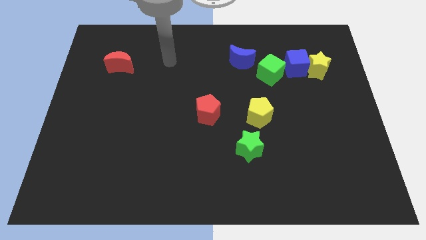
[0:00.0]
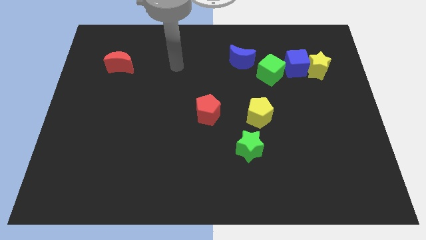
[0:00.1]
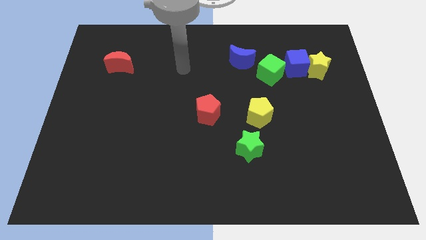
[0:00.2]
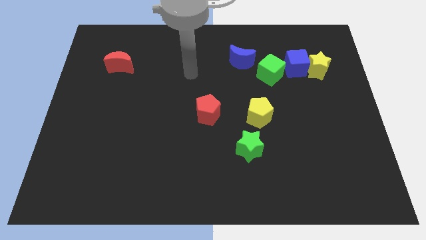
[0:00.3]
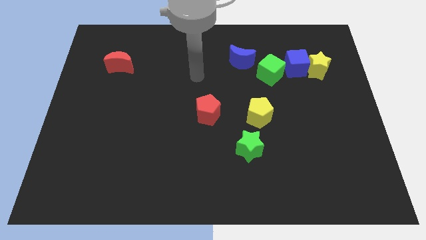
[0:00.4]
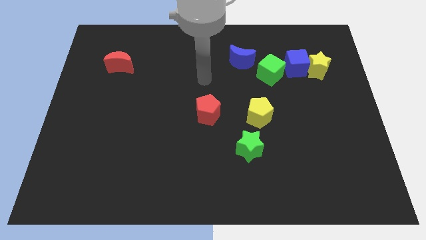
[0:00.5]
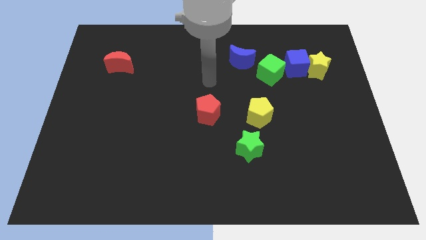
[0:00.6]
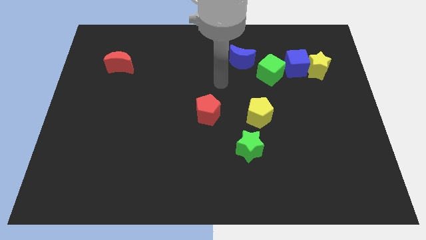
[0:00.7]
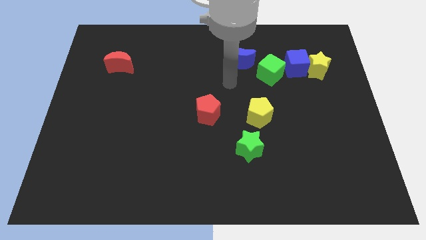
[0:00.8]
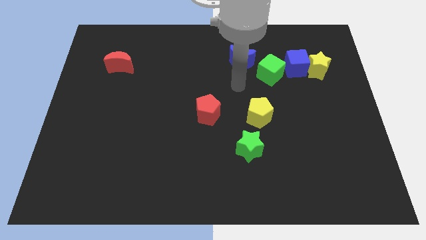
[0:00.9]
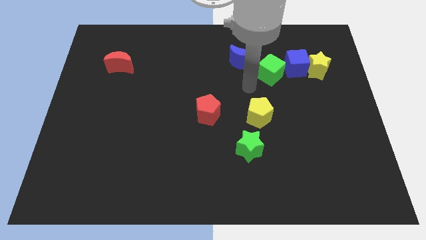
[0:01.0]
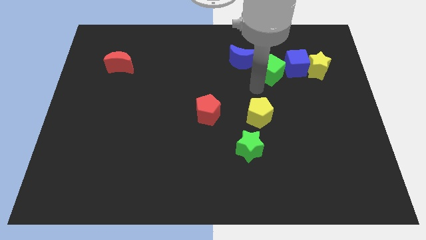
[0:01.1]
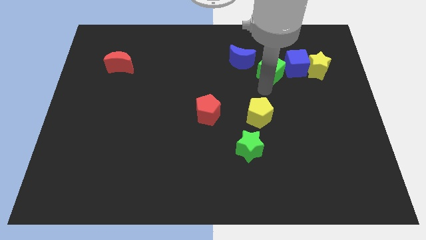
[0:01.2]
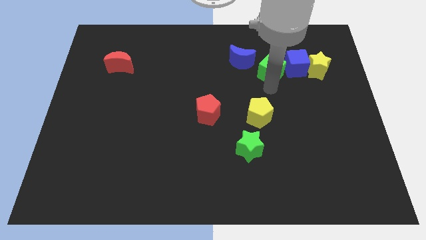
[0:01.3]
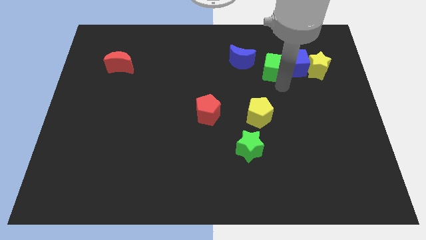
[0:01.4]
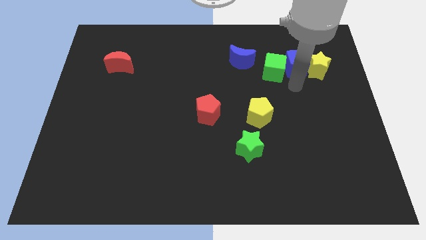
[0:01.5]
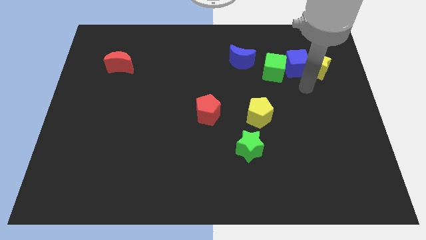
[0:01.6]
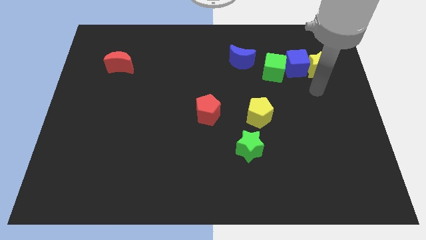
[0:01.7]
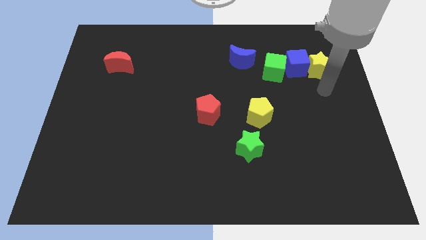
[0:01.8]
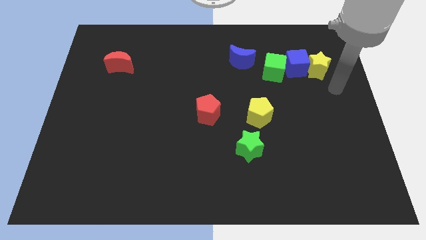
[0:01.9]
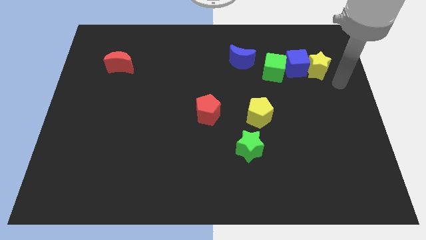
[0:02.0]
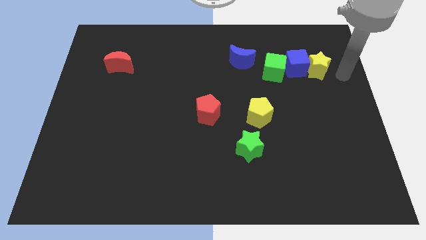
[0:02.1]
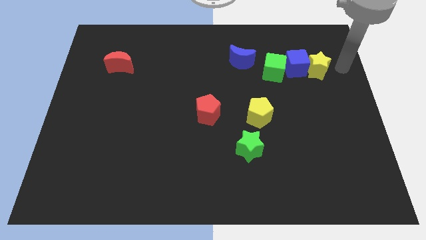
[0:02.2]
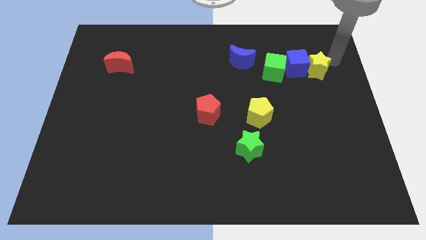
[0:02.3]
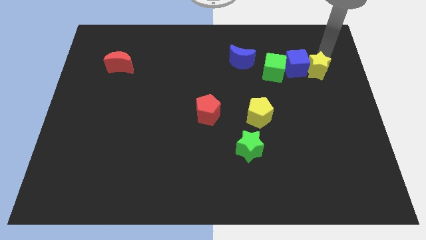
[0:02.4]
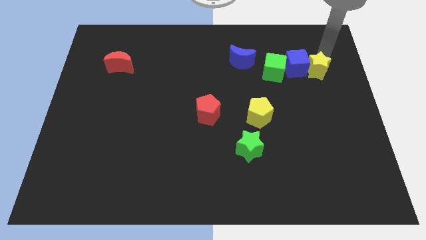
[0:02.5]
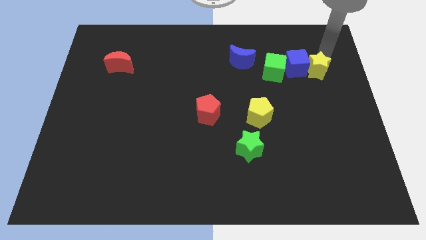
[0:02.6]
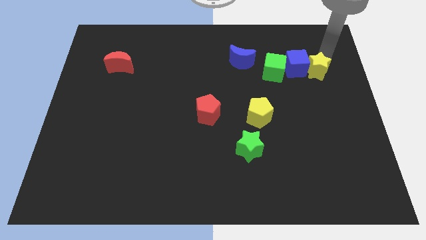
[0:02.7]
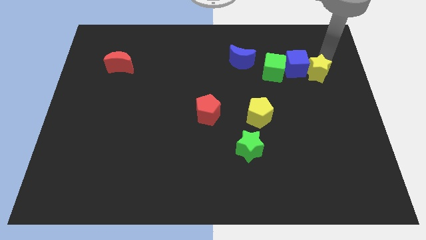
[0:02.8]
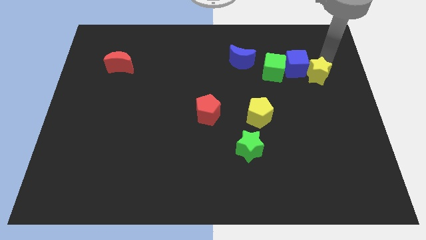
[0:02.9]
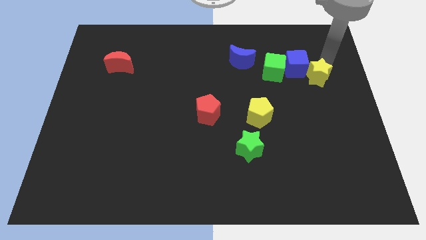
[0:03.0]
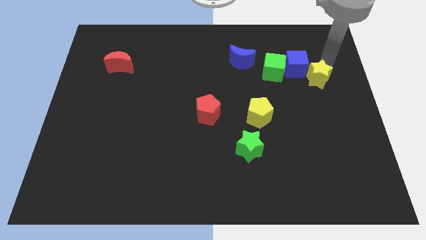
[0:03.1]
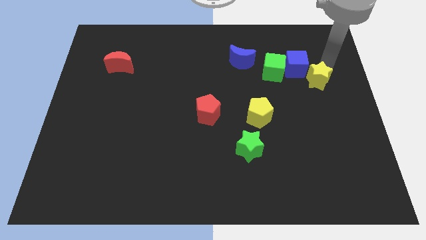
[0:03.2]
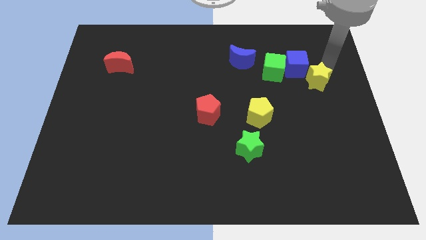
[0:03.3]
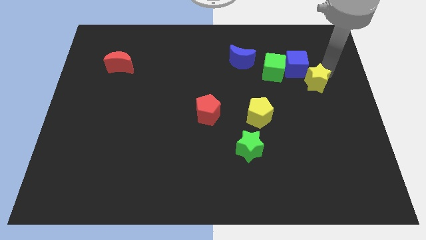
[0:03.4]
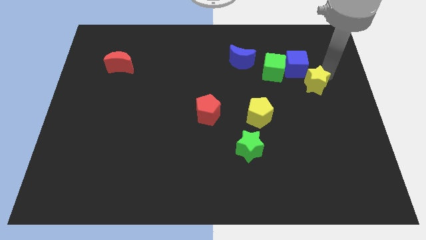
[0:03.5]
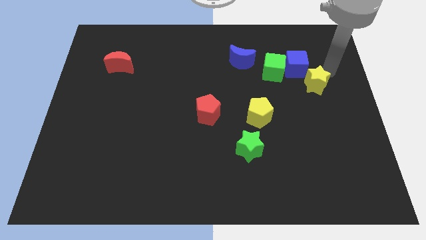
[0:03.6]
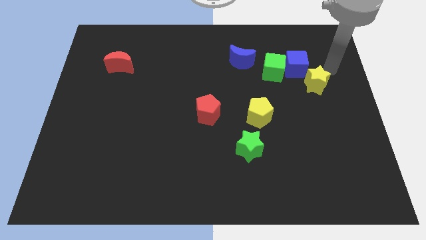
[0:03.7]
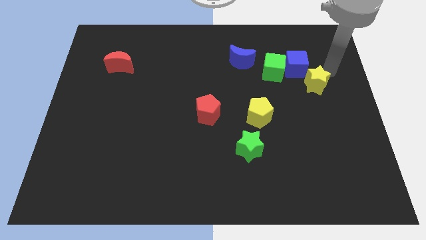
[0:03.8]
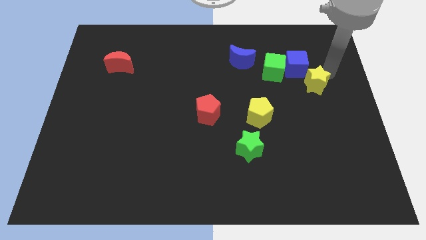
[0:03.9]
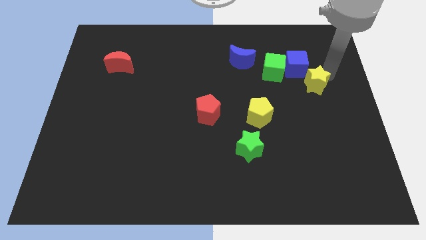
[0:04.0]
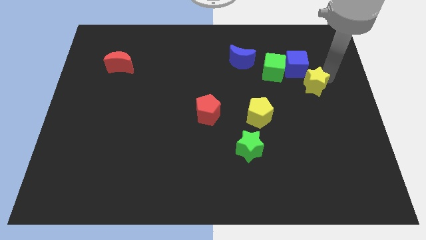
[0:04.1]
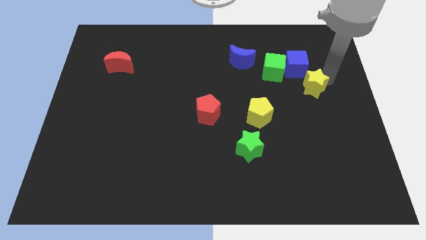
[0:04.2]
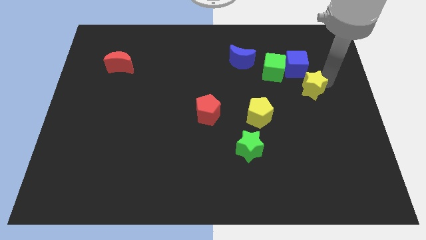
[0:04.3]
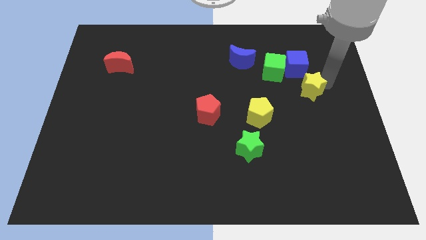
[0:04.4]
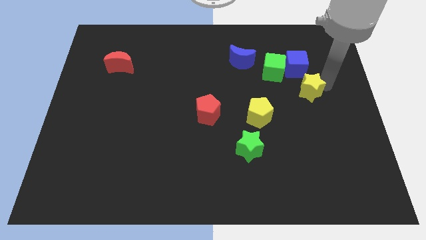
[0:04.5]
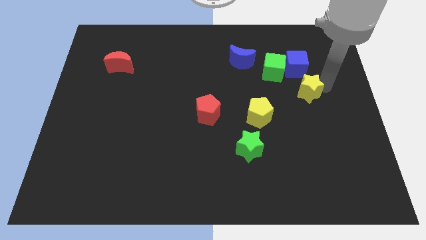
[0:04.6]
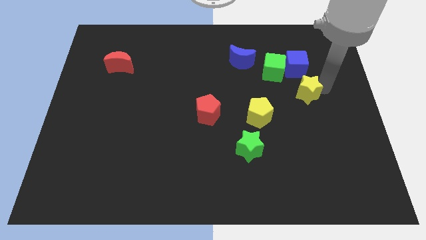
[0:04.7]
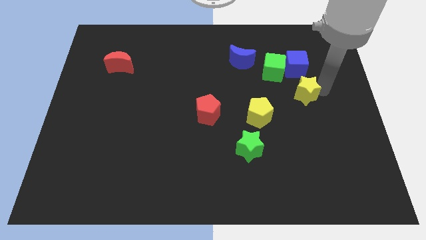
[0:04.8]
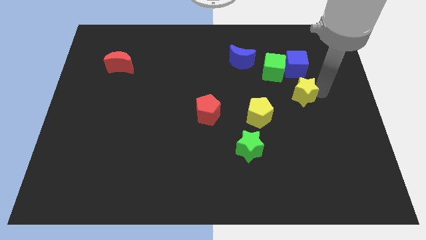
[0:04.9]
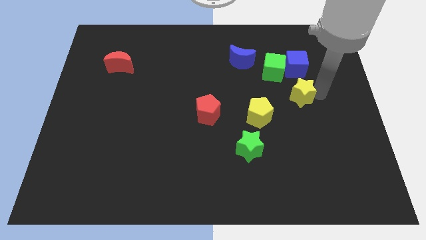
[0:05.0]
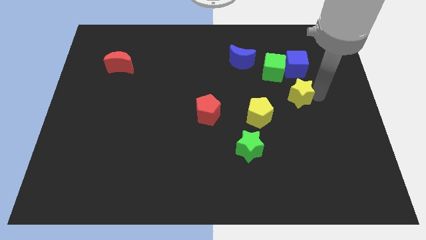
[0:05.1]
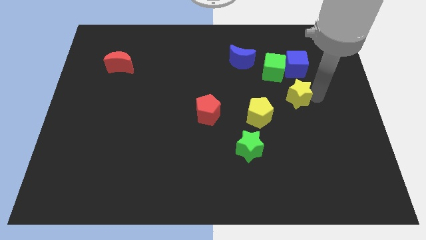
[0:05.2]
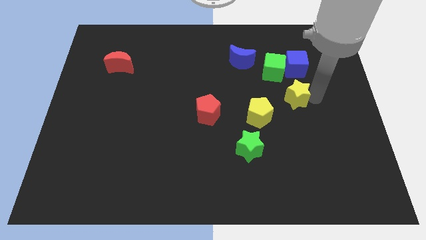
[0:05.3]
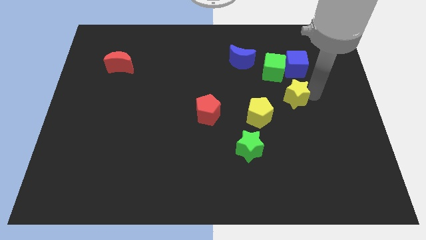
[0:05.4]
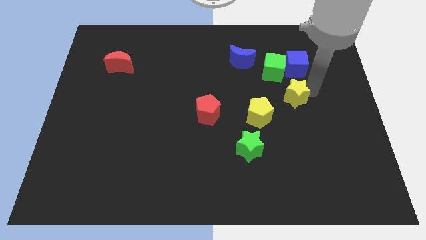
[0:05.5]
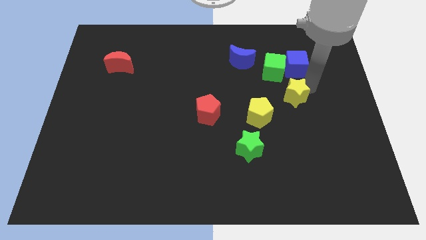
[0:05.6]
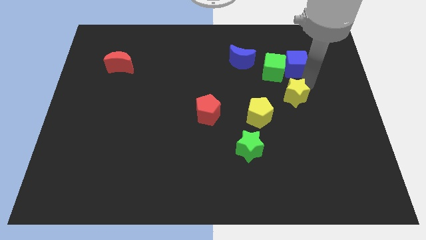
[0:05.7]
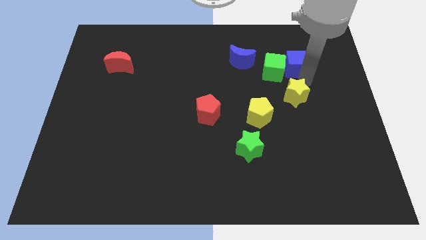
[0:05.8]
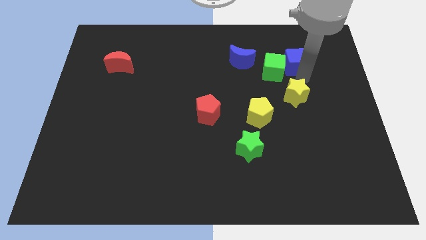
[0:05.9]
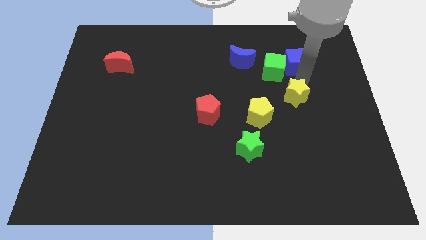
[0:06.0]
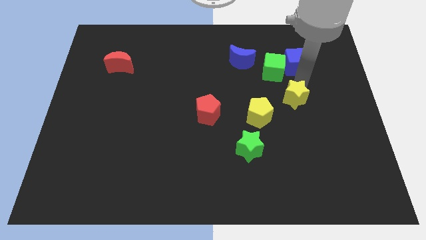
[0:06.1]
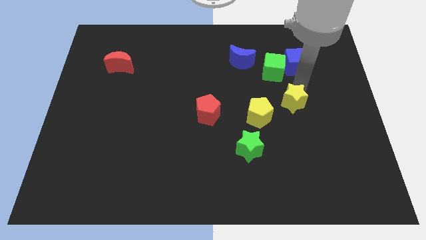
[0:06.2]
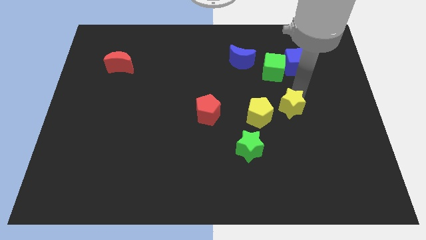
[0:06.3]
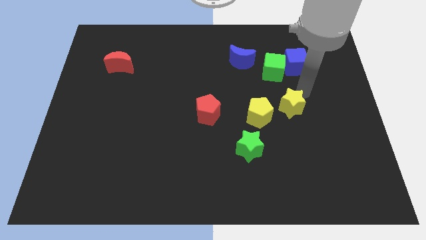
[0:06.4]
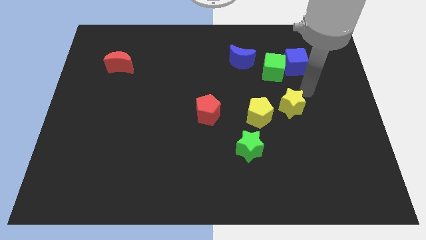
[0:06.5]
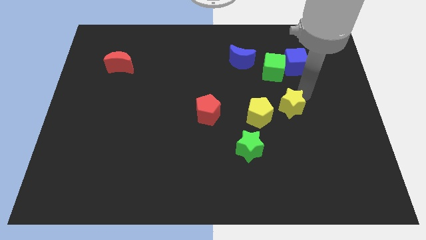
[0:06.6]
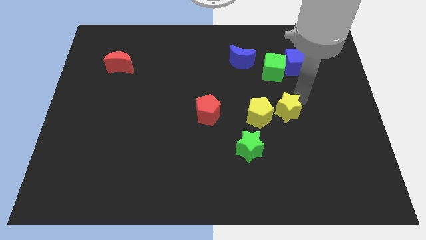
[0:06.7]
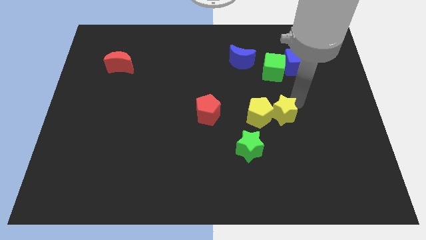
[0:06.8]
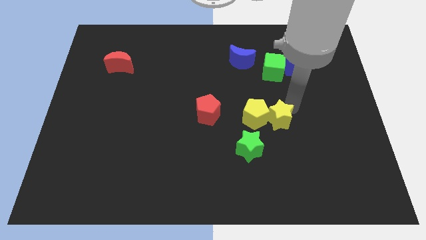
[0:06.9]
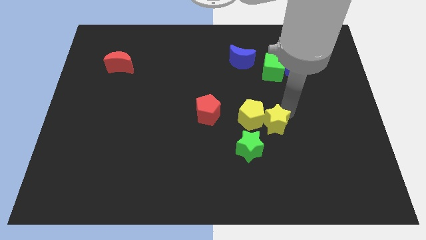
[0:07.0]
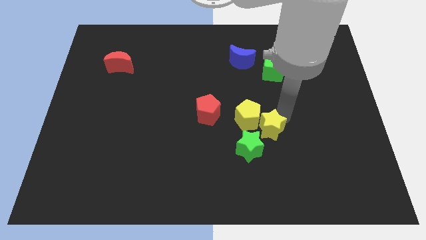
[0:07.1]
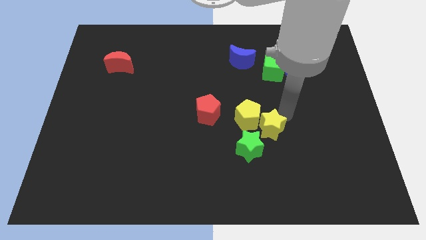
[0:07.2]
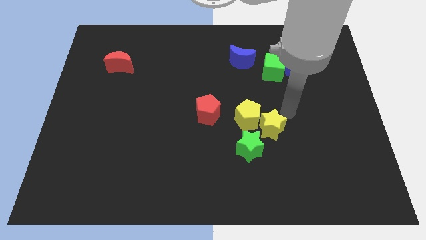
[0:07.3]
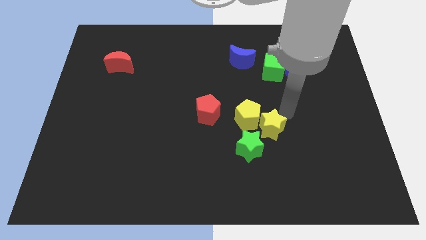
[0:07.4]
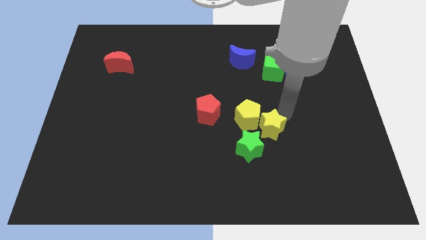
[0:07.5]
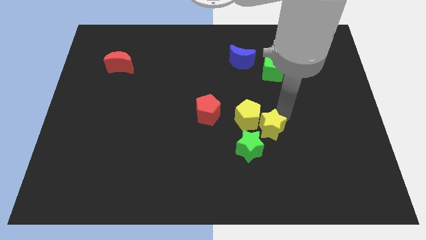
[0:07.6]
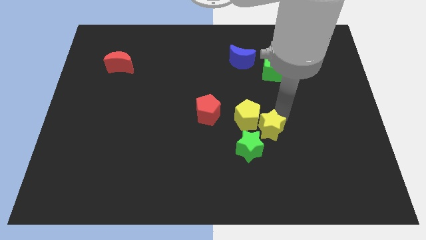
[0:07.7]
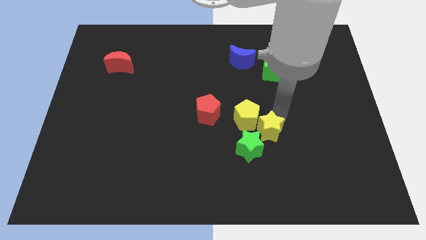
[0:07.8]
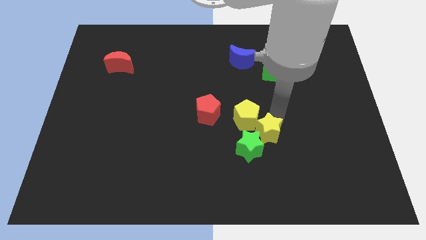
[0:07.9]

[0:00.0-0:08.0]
slide the yellow star close to the green star

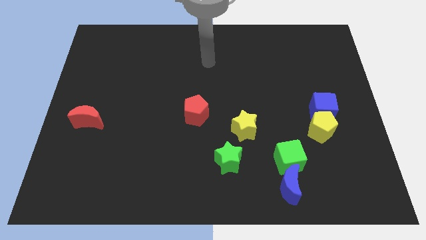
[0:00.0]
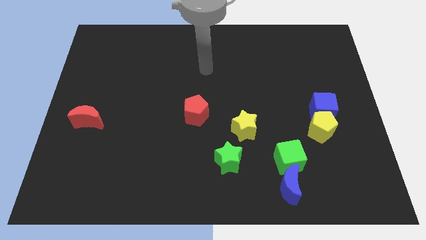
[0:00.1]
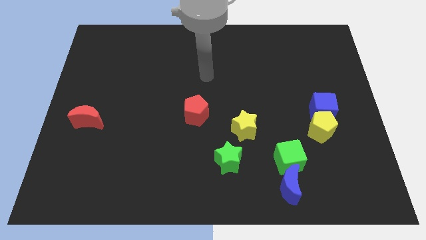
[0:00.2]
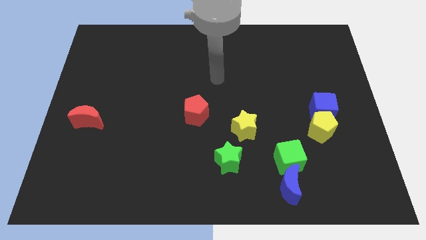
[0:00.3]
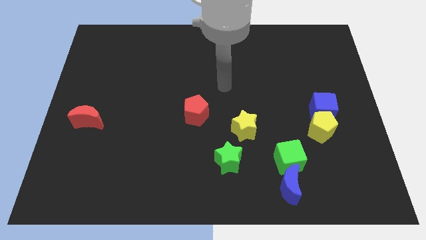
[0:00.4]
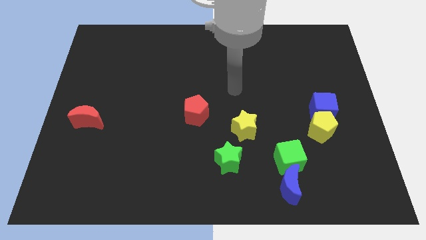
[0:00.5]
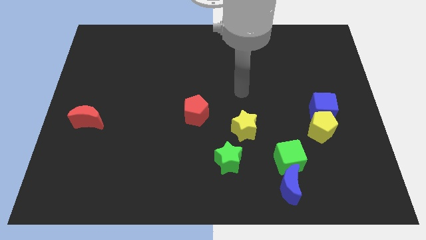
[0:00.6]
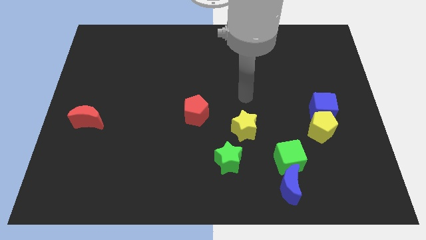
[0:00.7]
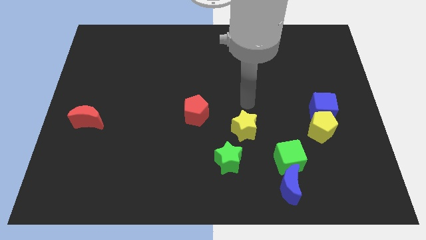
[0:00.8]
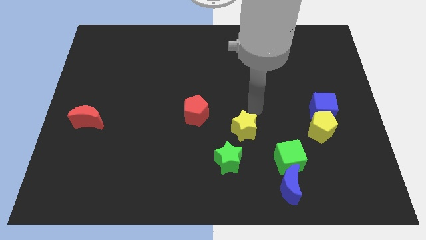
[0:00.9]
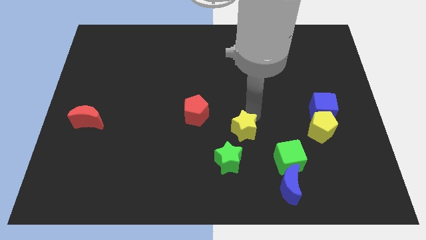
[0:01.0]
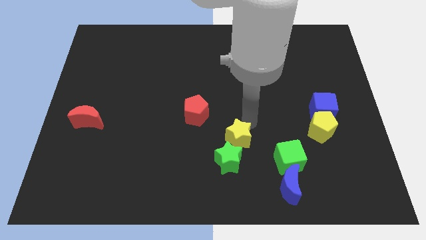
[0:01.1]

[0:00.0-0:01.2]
put the yellow star close to the green star
